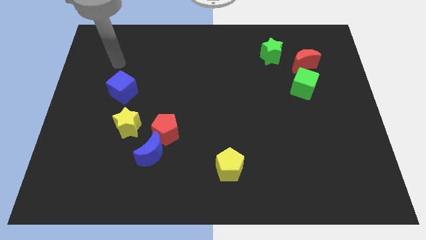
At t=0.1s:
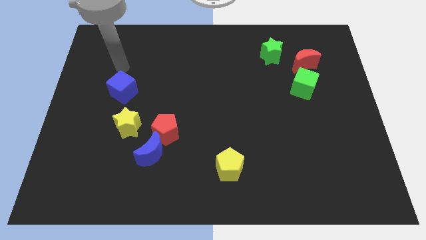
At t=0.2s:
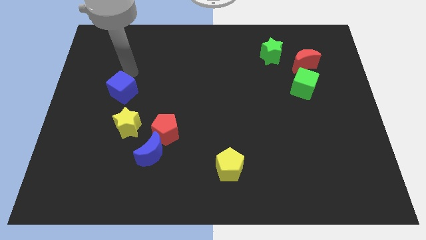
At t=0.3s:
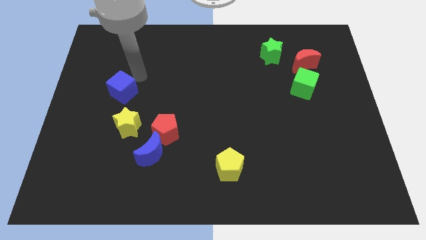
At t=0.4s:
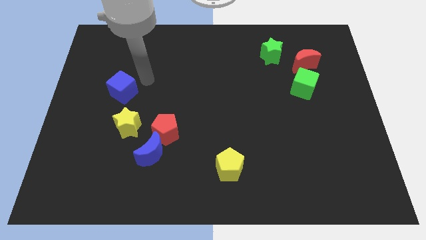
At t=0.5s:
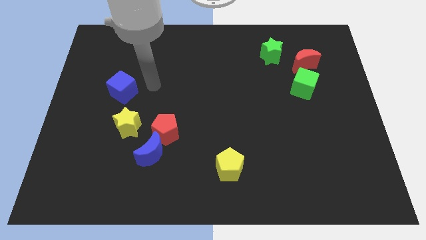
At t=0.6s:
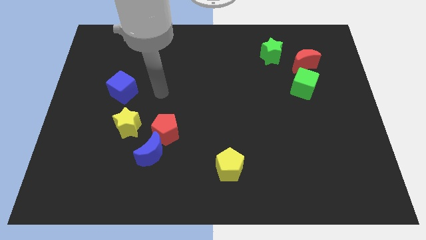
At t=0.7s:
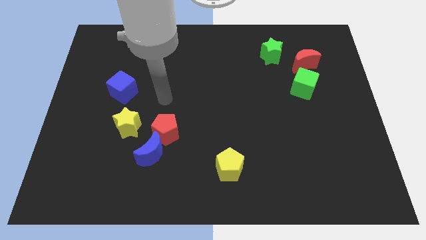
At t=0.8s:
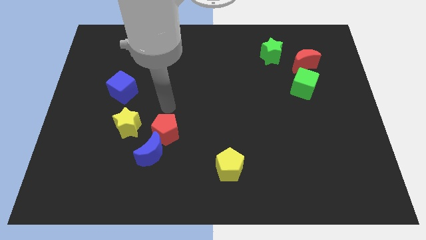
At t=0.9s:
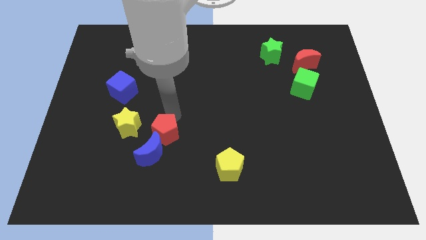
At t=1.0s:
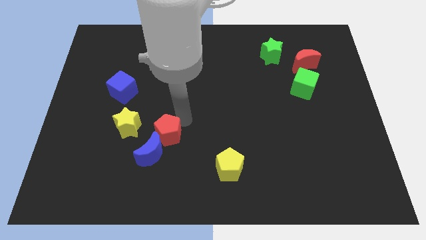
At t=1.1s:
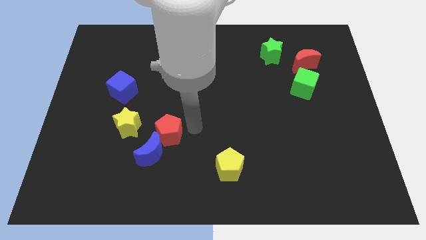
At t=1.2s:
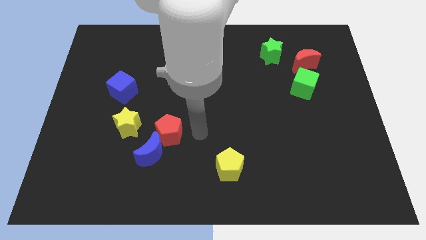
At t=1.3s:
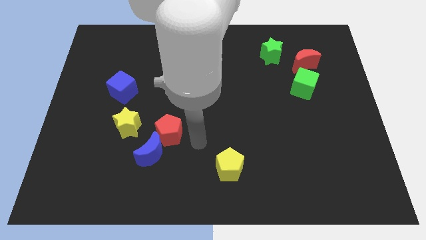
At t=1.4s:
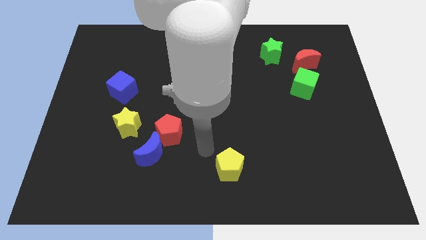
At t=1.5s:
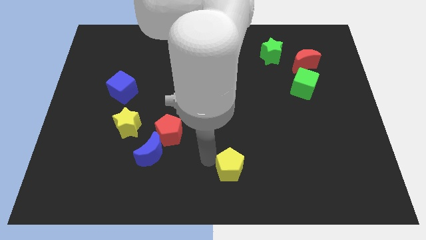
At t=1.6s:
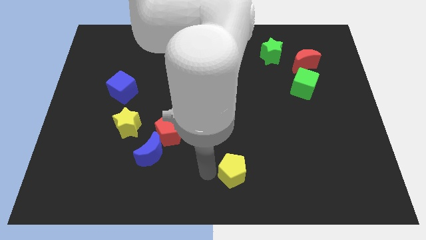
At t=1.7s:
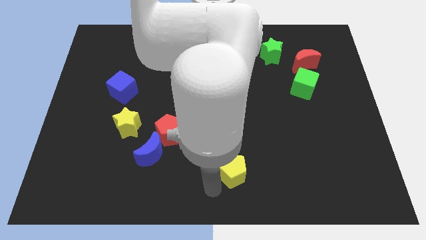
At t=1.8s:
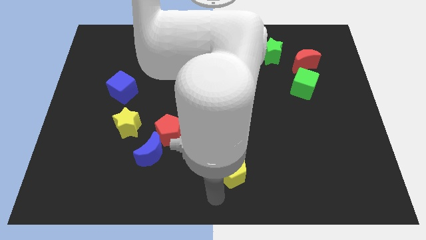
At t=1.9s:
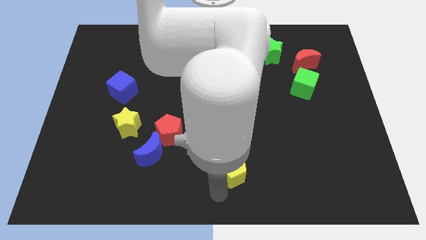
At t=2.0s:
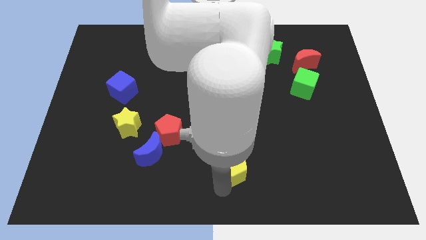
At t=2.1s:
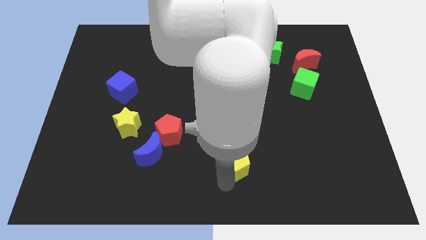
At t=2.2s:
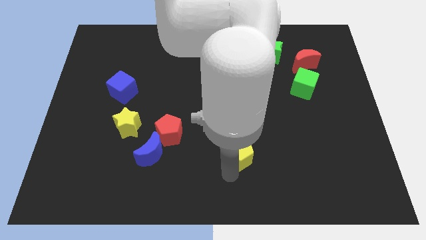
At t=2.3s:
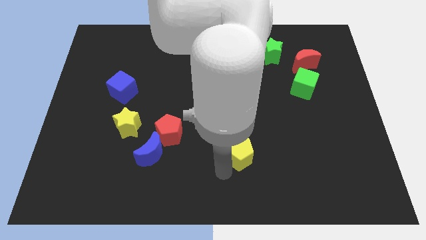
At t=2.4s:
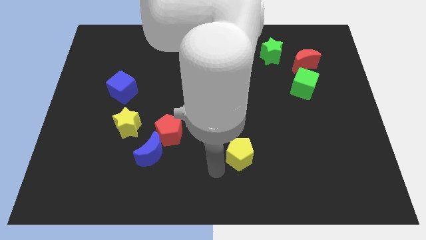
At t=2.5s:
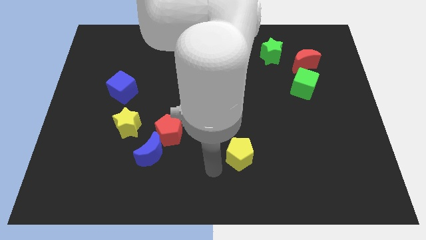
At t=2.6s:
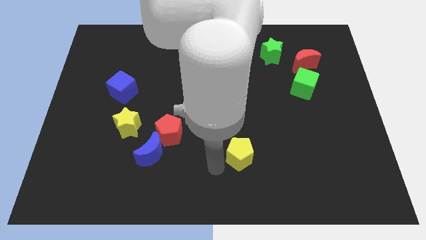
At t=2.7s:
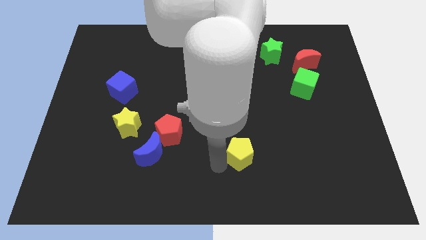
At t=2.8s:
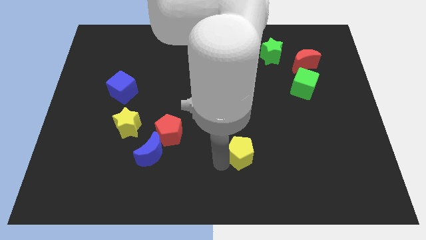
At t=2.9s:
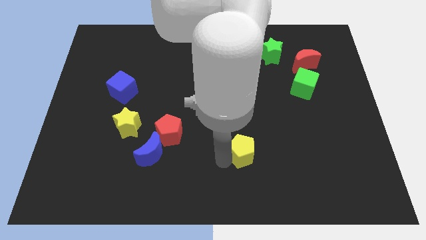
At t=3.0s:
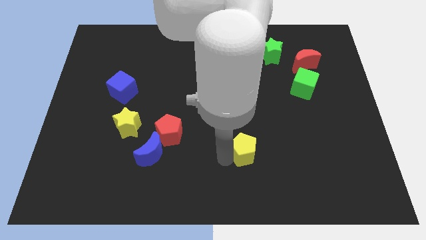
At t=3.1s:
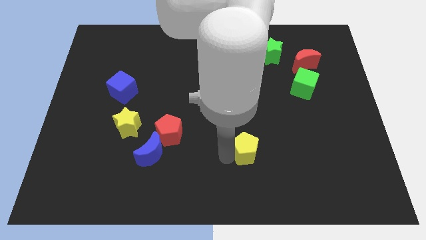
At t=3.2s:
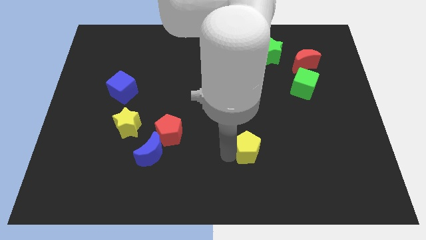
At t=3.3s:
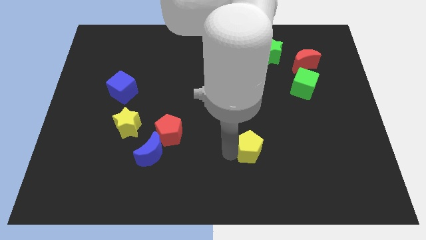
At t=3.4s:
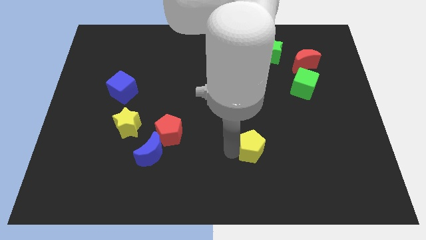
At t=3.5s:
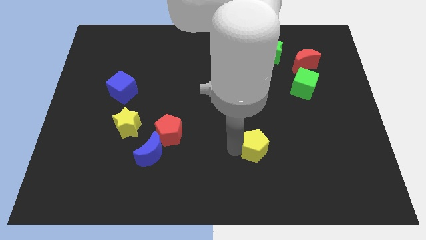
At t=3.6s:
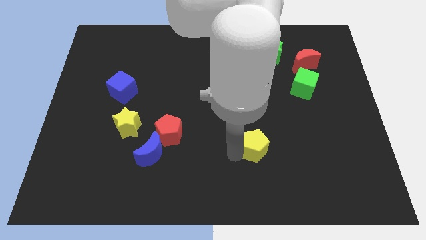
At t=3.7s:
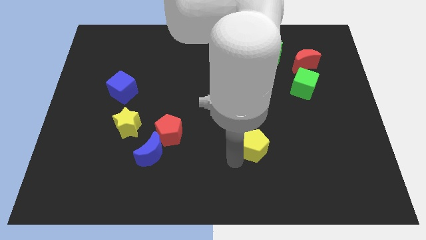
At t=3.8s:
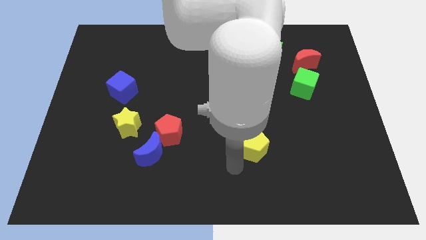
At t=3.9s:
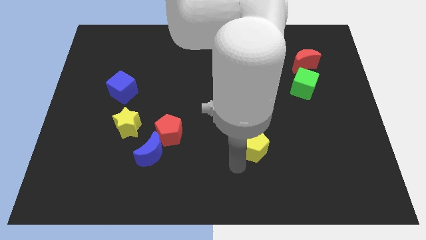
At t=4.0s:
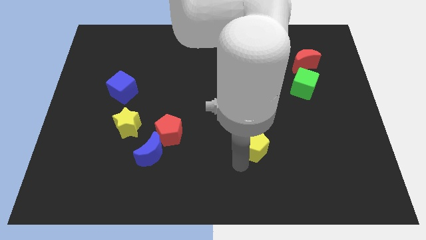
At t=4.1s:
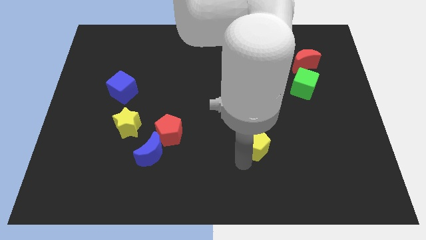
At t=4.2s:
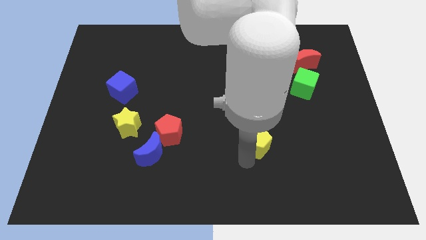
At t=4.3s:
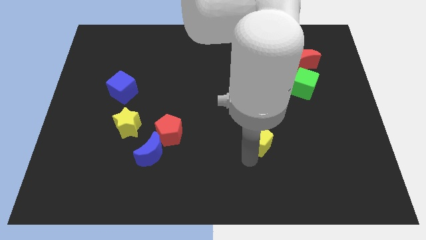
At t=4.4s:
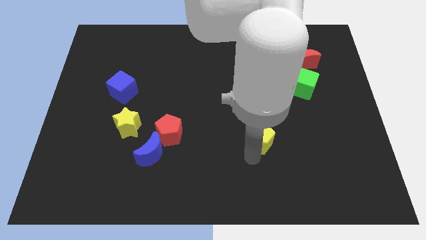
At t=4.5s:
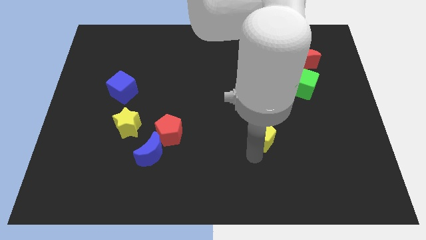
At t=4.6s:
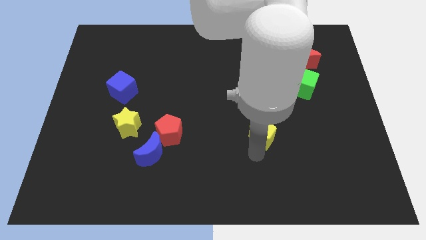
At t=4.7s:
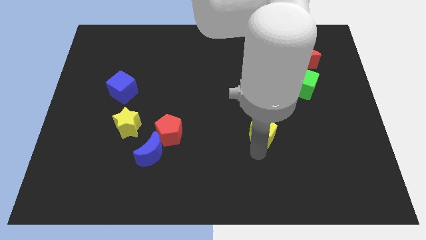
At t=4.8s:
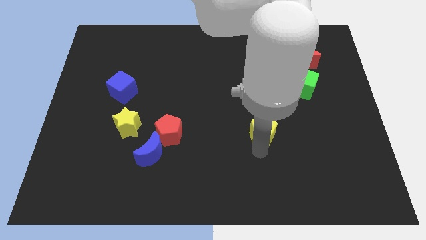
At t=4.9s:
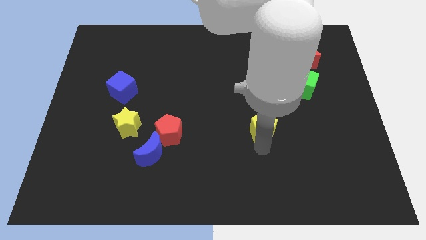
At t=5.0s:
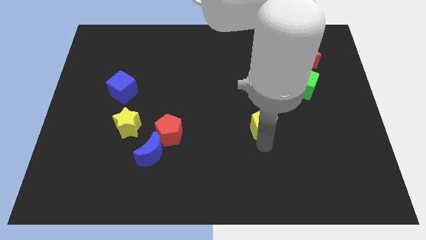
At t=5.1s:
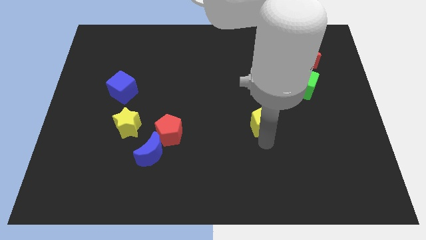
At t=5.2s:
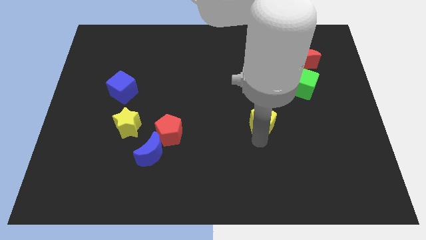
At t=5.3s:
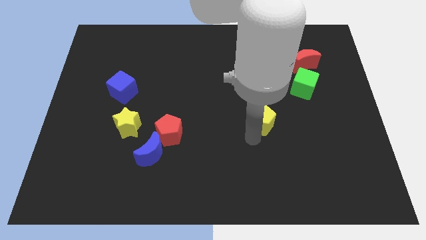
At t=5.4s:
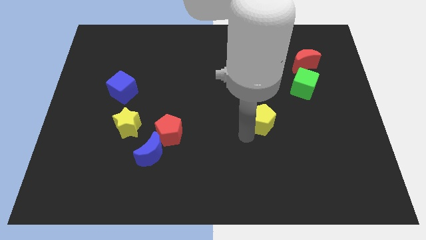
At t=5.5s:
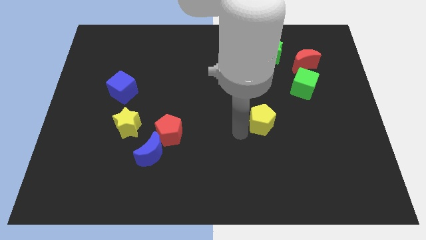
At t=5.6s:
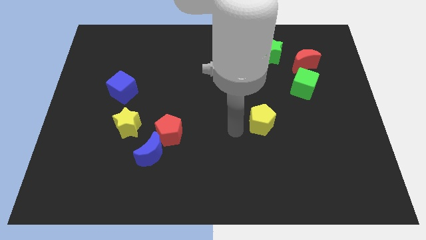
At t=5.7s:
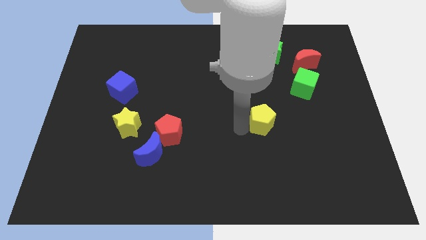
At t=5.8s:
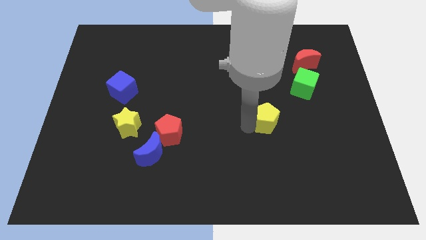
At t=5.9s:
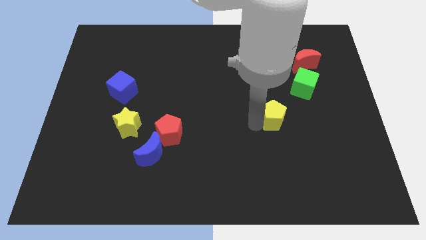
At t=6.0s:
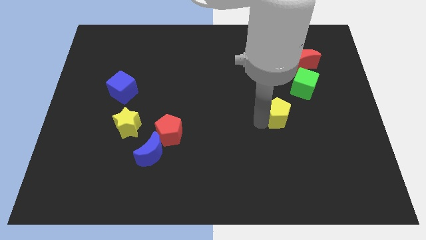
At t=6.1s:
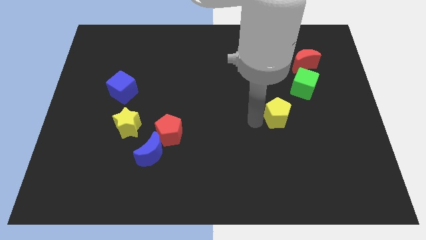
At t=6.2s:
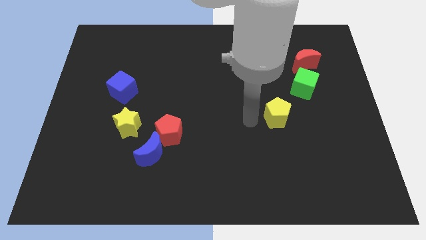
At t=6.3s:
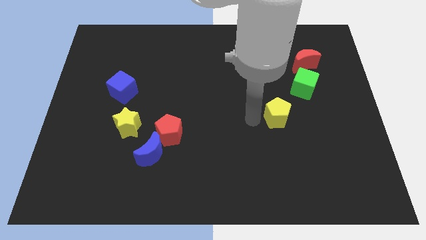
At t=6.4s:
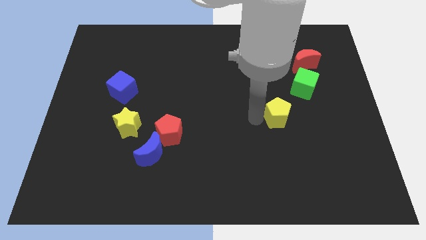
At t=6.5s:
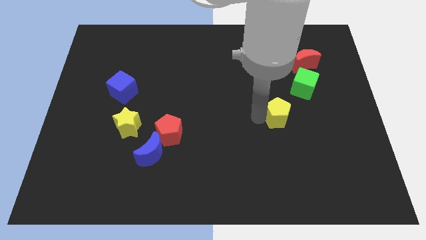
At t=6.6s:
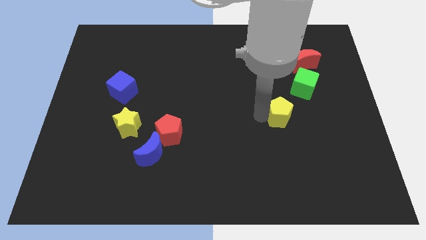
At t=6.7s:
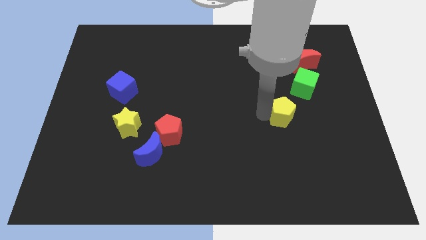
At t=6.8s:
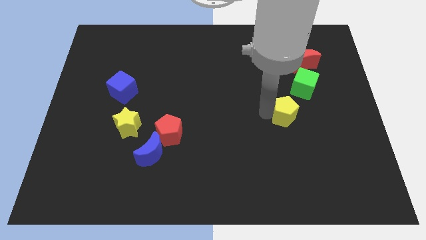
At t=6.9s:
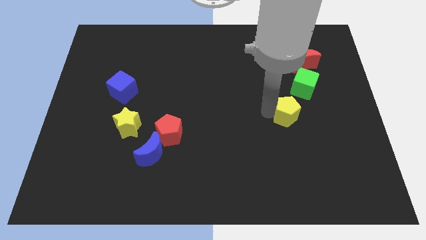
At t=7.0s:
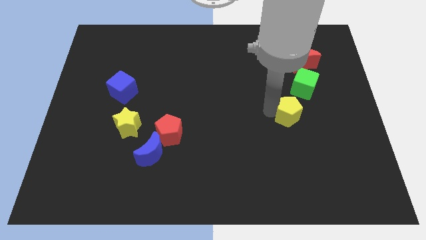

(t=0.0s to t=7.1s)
push the yellow pentagon up and then right

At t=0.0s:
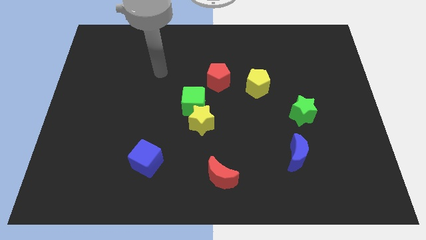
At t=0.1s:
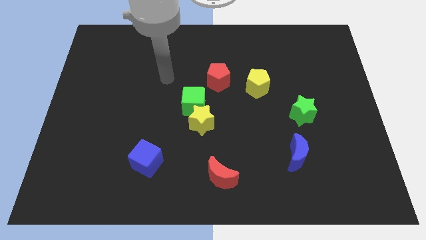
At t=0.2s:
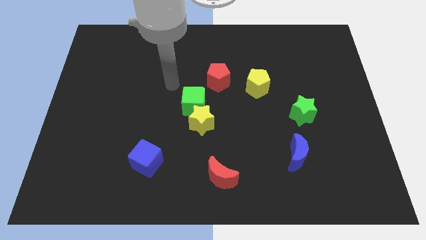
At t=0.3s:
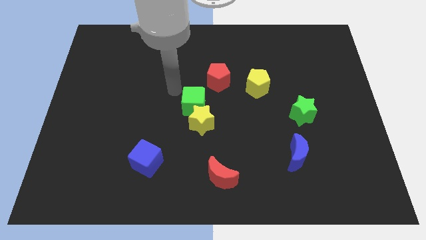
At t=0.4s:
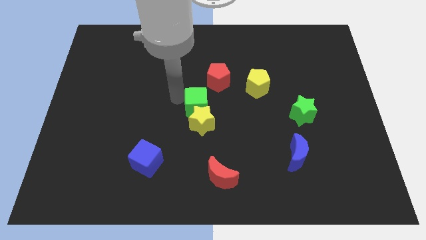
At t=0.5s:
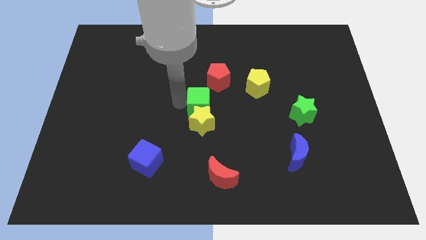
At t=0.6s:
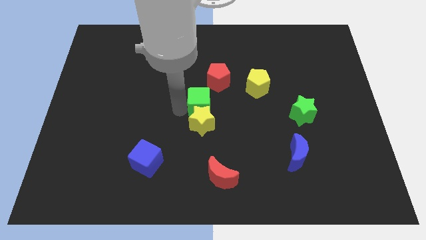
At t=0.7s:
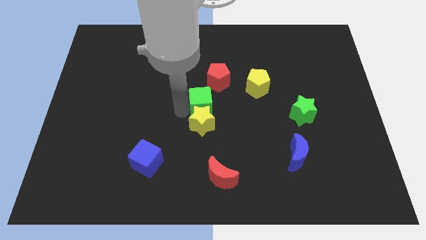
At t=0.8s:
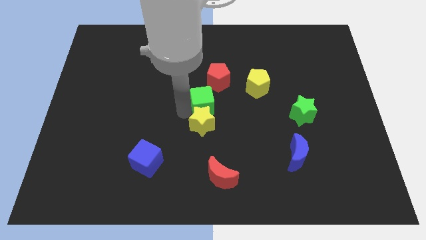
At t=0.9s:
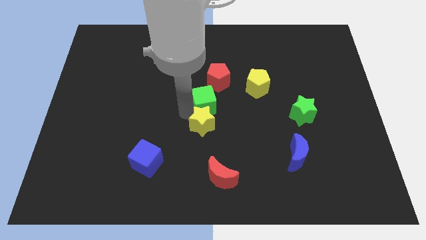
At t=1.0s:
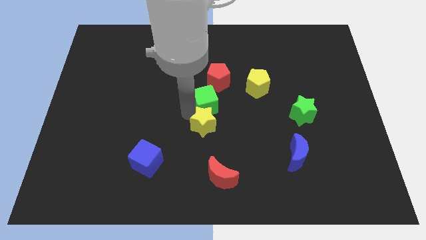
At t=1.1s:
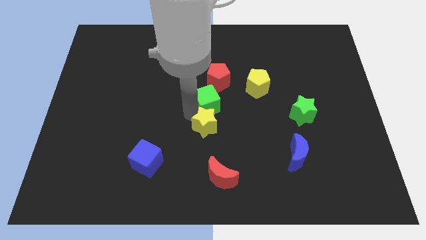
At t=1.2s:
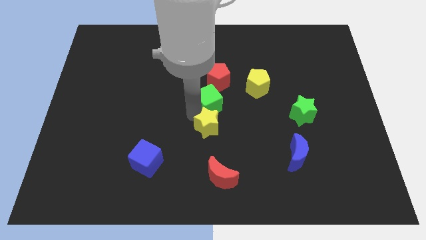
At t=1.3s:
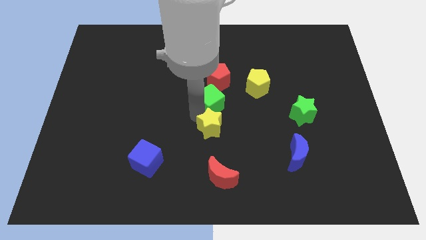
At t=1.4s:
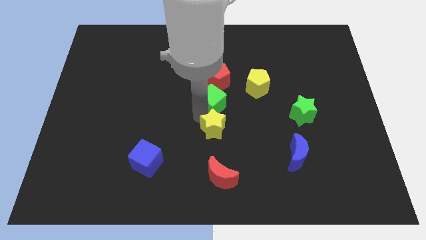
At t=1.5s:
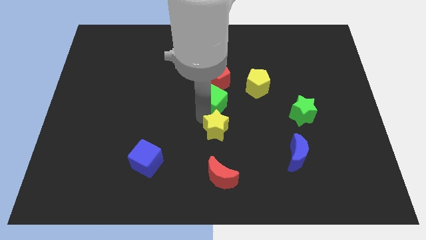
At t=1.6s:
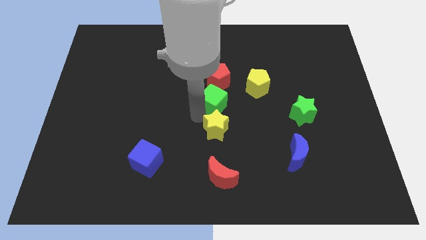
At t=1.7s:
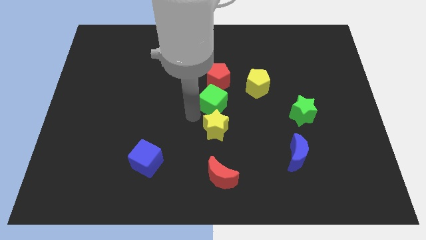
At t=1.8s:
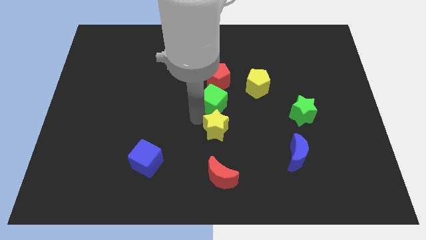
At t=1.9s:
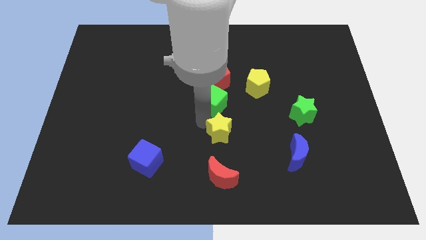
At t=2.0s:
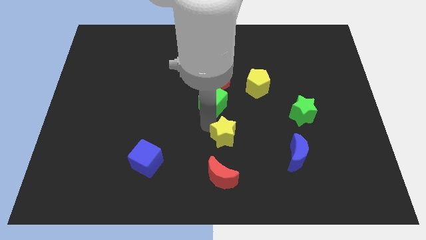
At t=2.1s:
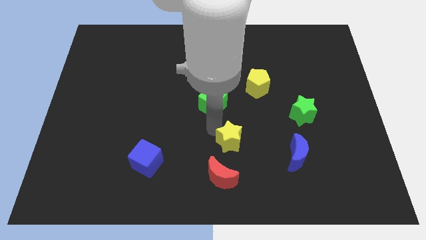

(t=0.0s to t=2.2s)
push the yellow star downwards and then right a little
